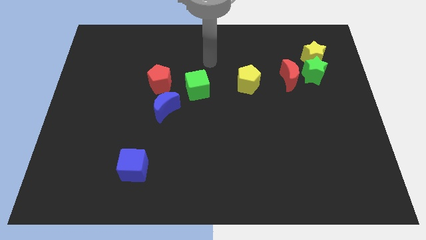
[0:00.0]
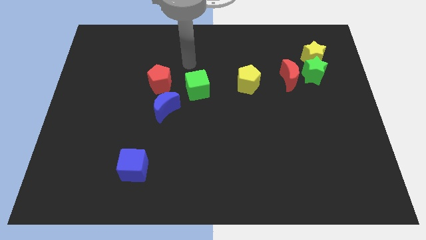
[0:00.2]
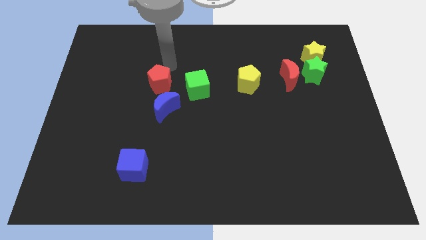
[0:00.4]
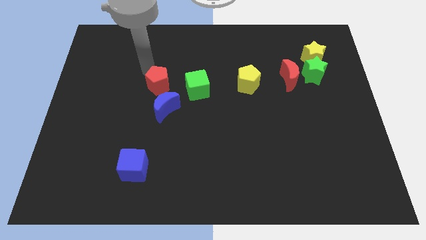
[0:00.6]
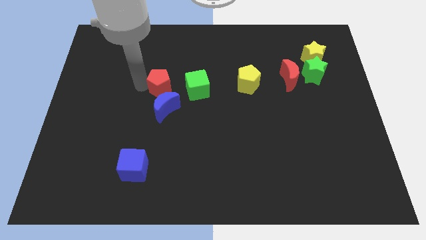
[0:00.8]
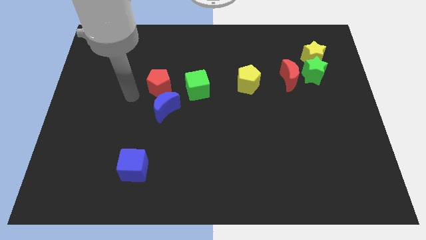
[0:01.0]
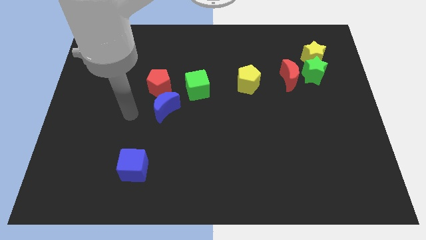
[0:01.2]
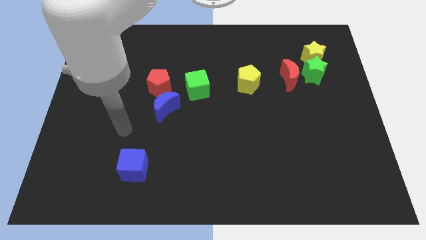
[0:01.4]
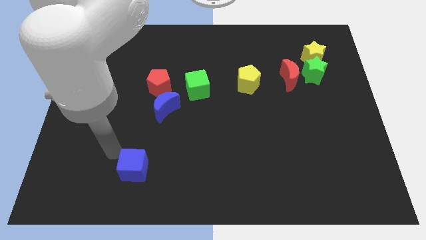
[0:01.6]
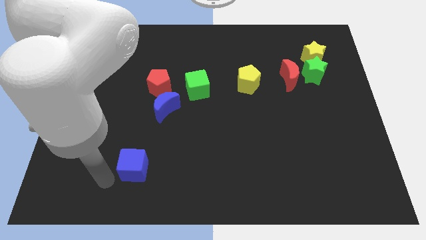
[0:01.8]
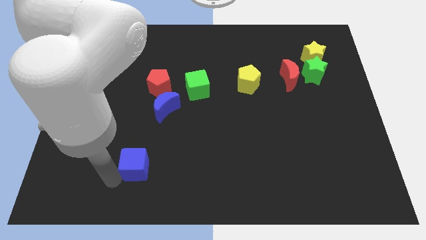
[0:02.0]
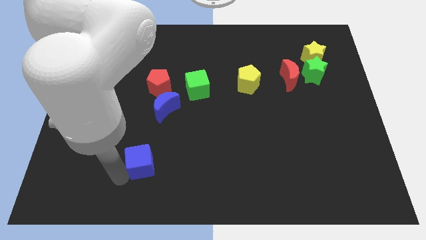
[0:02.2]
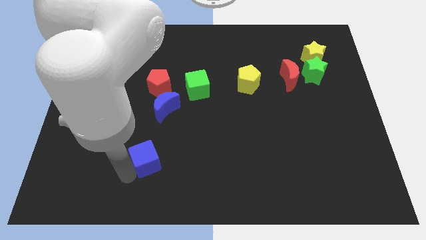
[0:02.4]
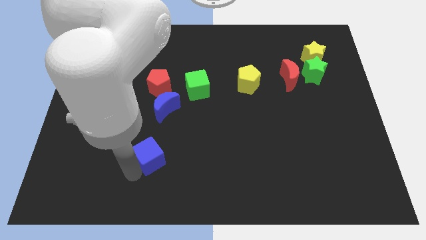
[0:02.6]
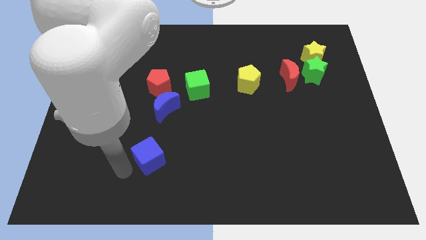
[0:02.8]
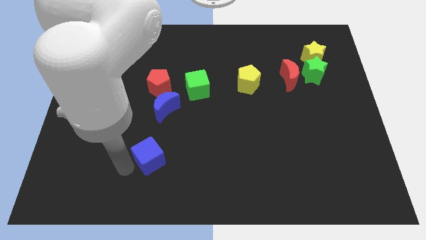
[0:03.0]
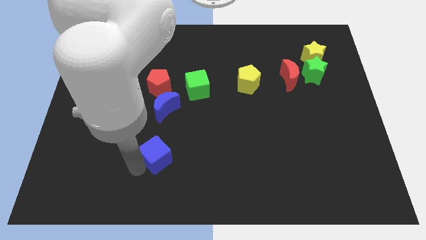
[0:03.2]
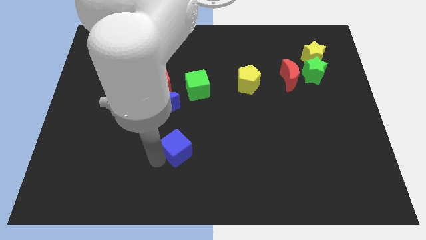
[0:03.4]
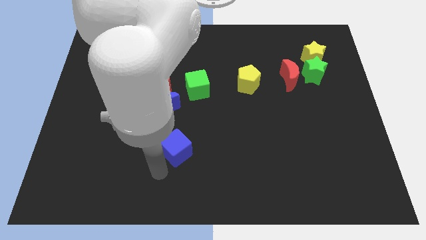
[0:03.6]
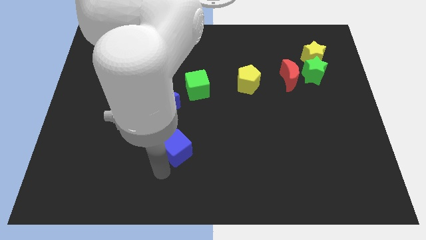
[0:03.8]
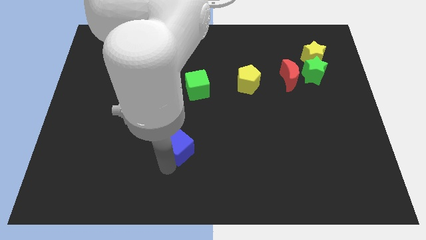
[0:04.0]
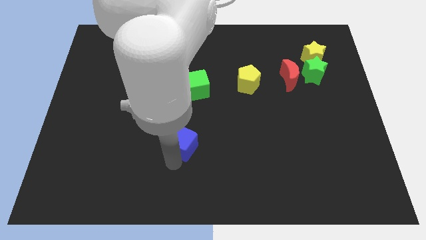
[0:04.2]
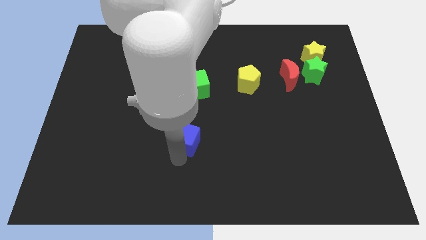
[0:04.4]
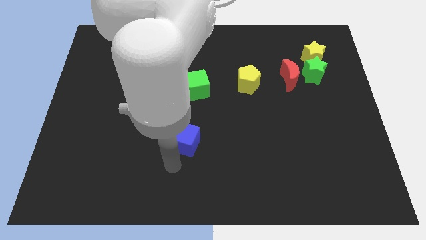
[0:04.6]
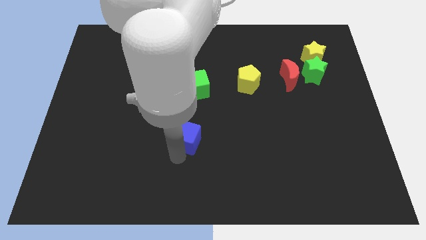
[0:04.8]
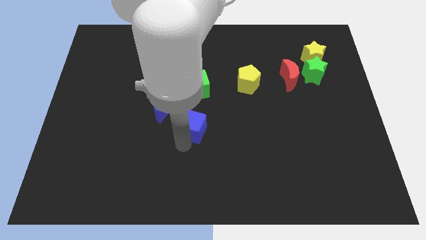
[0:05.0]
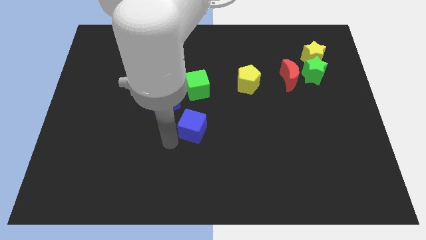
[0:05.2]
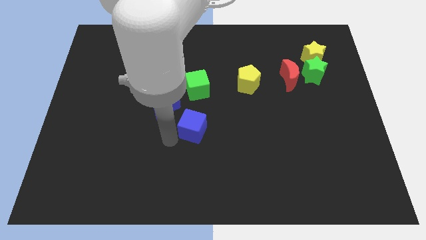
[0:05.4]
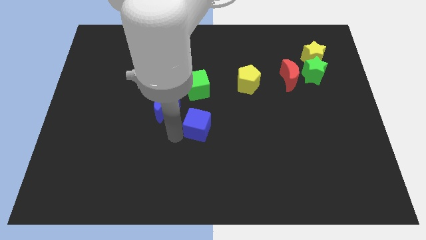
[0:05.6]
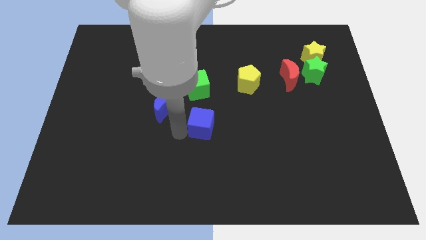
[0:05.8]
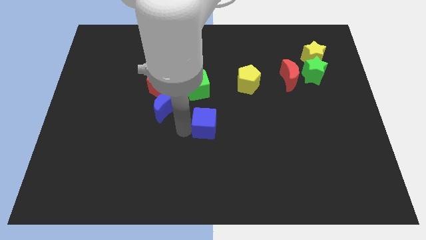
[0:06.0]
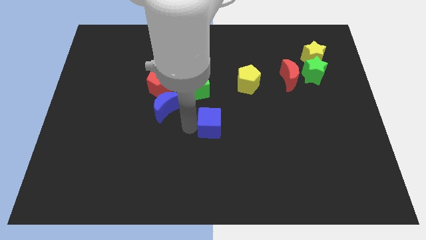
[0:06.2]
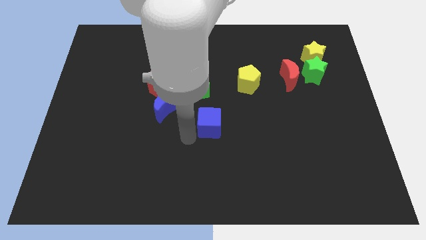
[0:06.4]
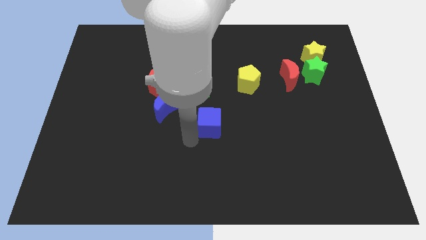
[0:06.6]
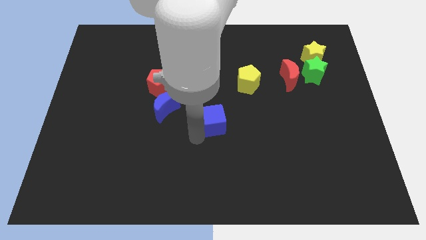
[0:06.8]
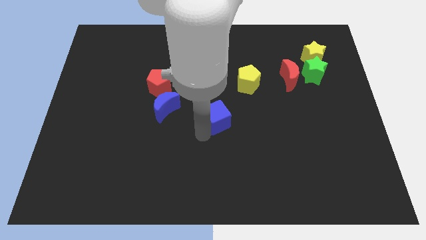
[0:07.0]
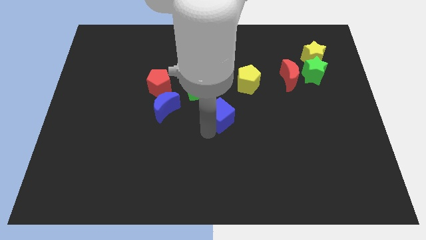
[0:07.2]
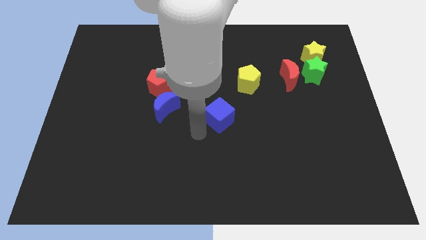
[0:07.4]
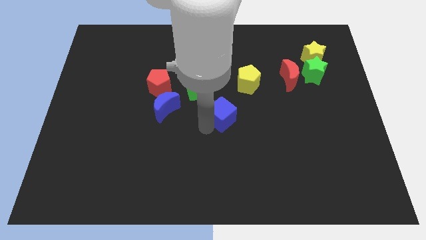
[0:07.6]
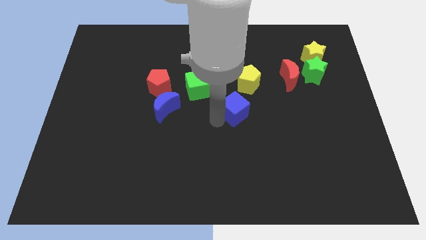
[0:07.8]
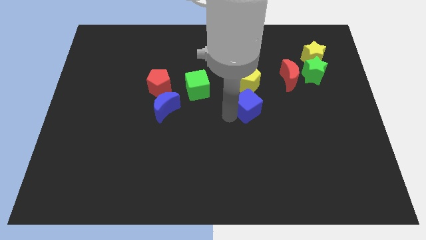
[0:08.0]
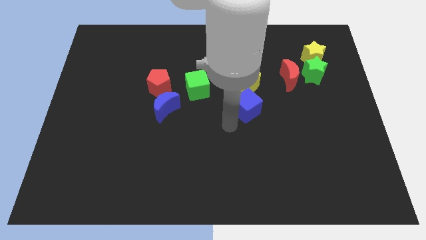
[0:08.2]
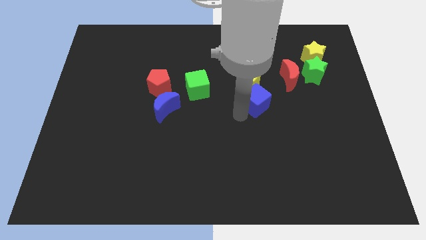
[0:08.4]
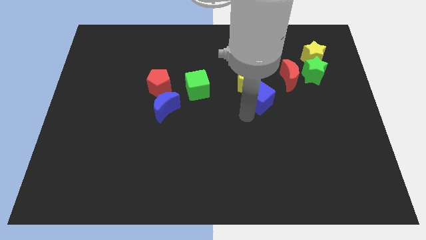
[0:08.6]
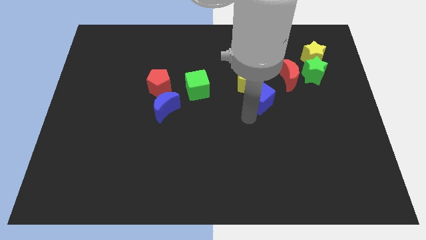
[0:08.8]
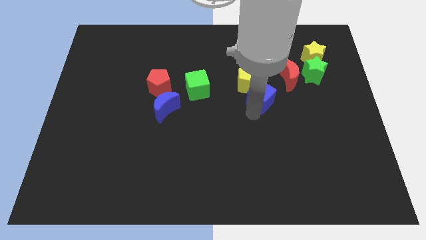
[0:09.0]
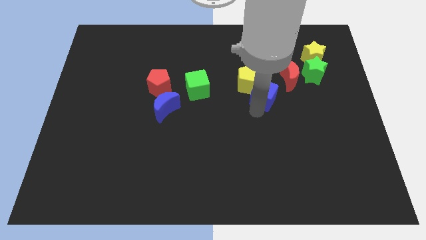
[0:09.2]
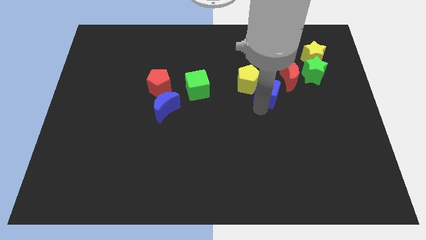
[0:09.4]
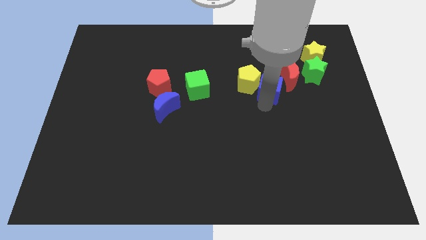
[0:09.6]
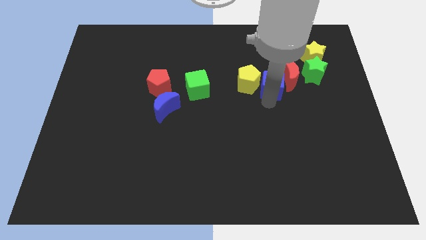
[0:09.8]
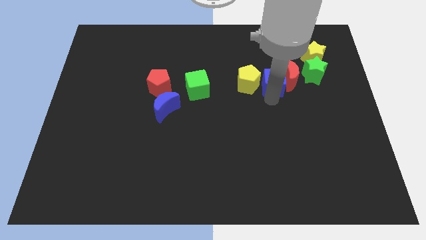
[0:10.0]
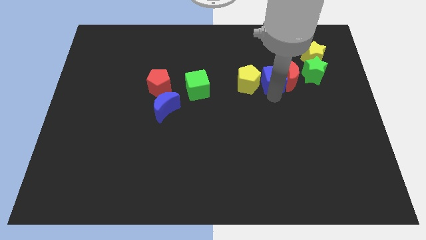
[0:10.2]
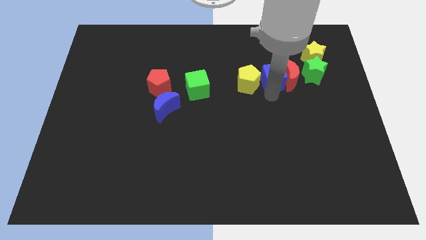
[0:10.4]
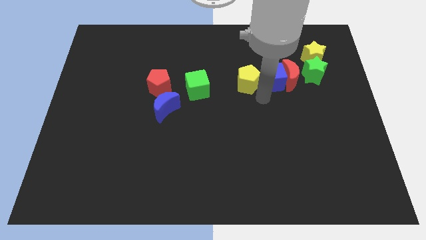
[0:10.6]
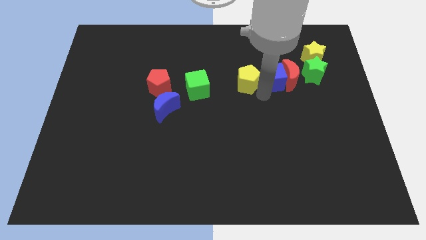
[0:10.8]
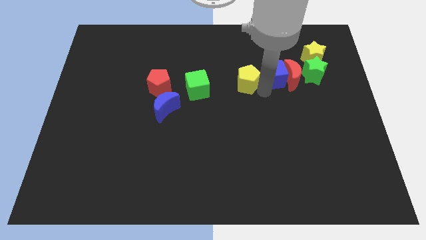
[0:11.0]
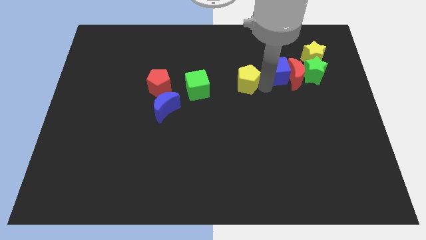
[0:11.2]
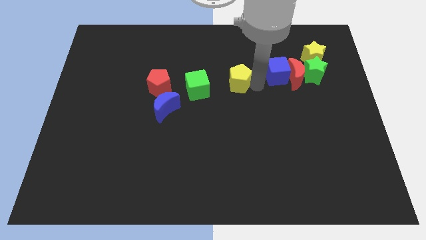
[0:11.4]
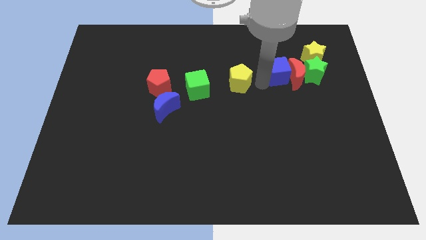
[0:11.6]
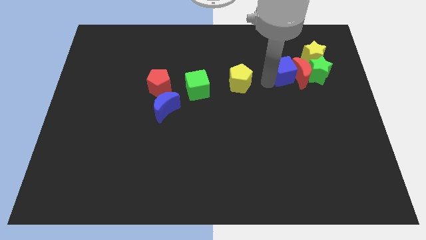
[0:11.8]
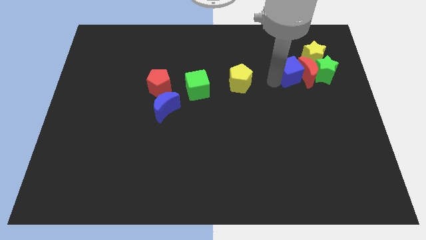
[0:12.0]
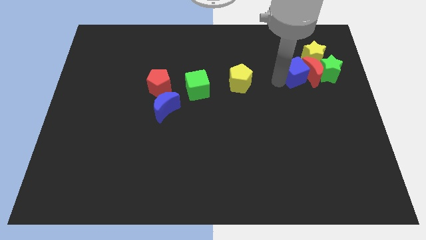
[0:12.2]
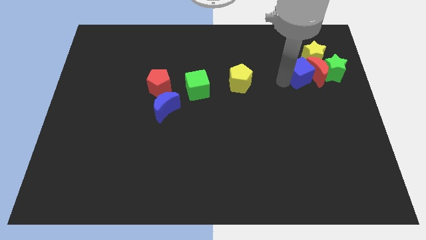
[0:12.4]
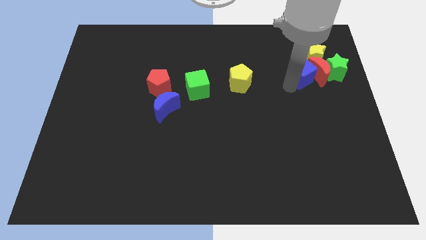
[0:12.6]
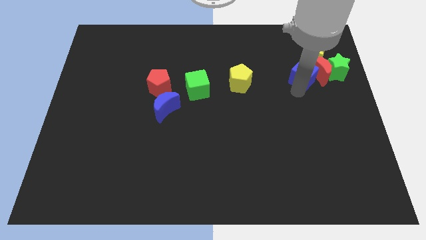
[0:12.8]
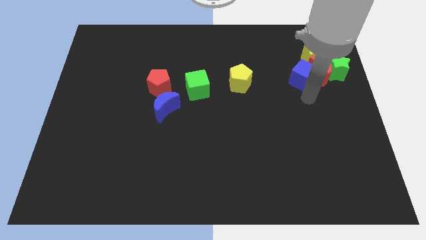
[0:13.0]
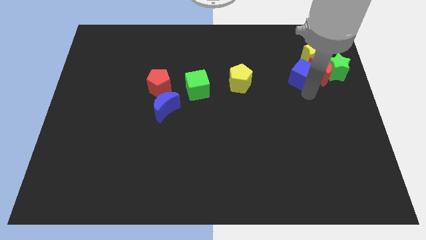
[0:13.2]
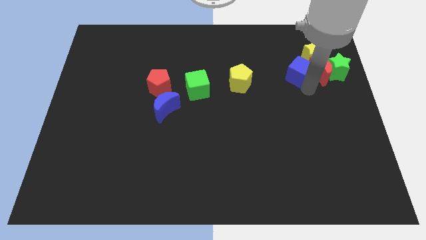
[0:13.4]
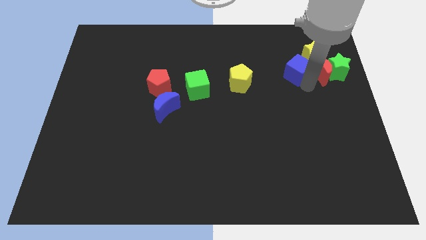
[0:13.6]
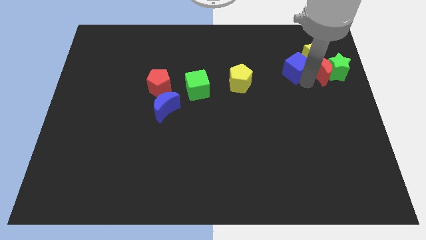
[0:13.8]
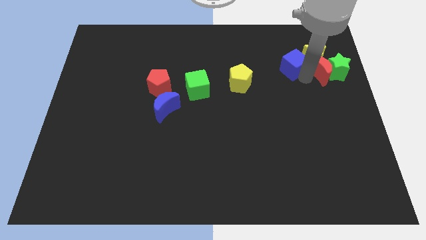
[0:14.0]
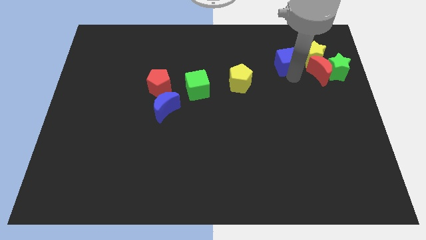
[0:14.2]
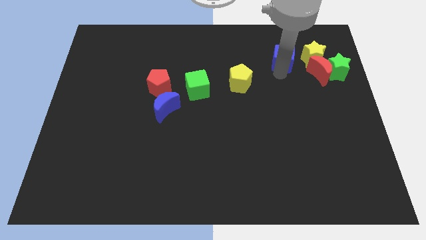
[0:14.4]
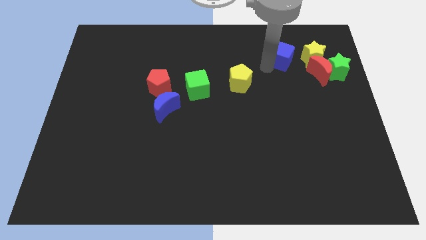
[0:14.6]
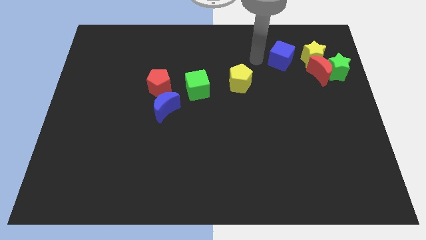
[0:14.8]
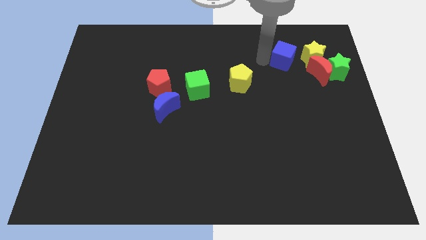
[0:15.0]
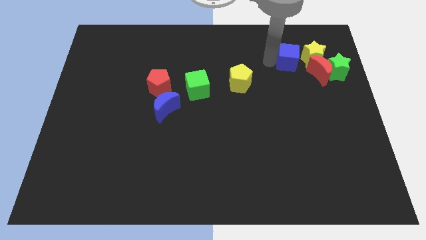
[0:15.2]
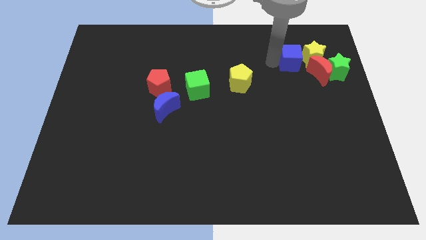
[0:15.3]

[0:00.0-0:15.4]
slide the blue cube next to the yellow star
